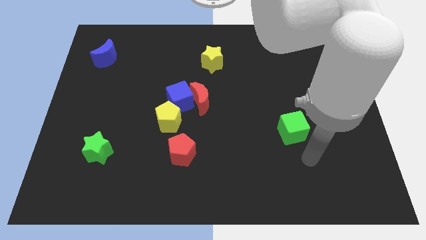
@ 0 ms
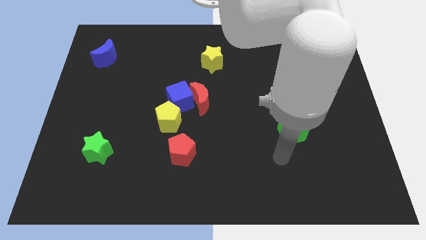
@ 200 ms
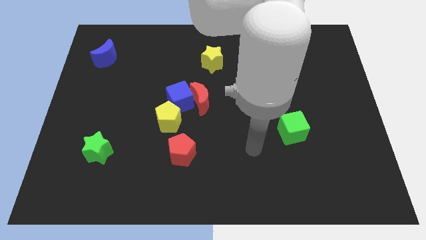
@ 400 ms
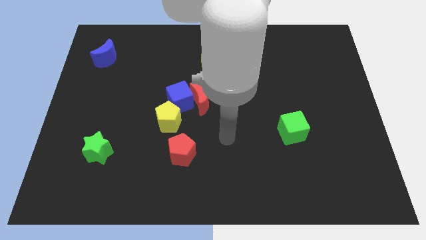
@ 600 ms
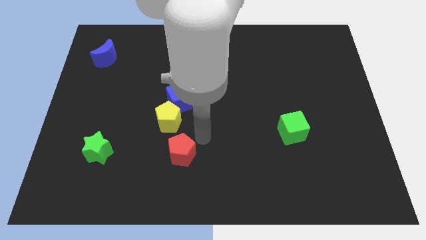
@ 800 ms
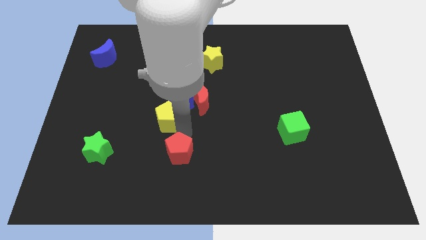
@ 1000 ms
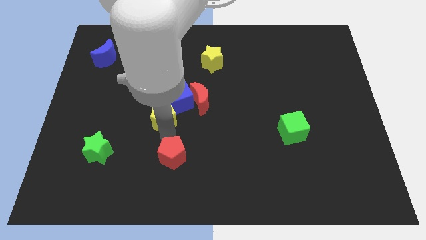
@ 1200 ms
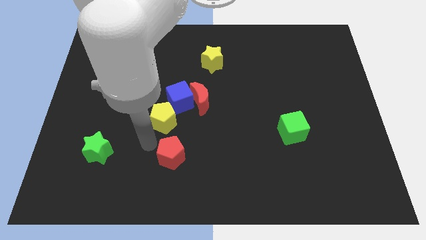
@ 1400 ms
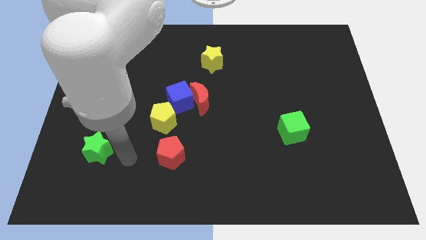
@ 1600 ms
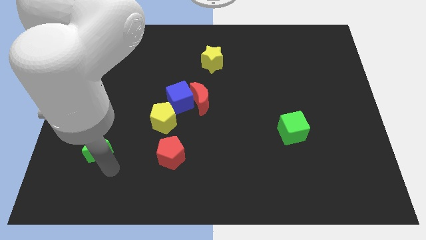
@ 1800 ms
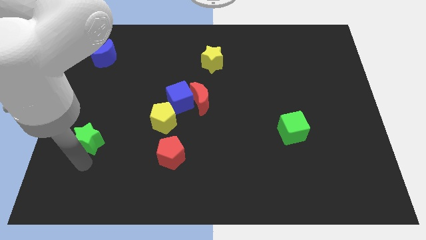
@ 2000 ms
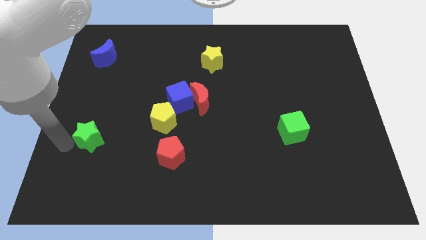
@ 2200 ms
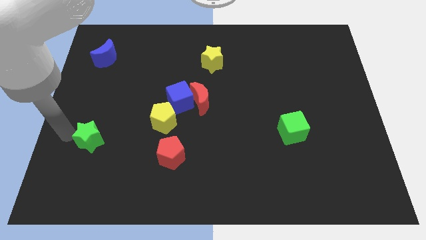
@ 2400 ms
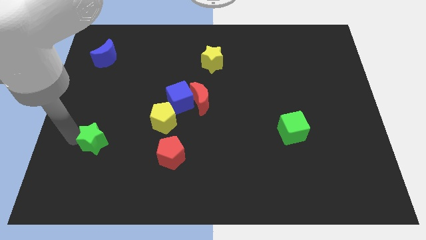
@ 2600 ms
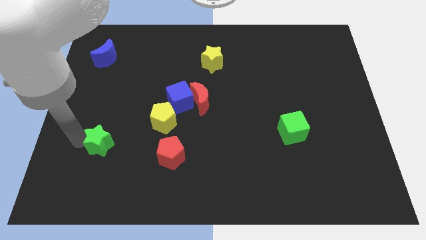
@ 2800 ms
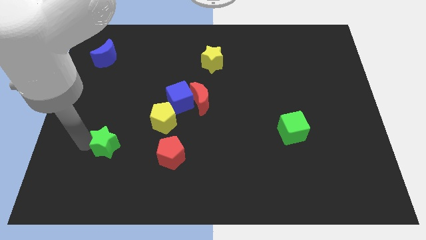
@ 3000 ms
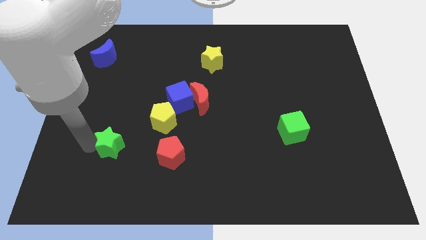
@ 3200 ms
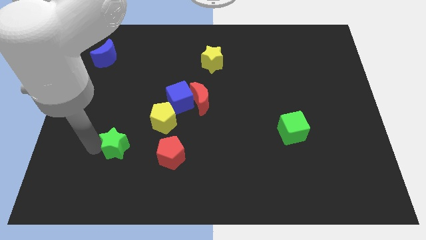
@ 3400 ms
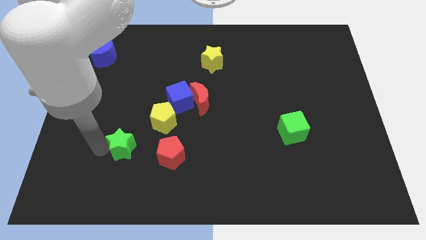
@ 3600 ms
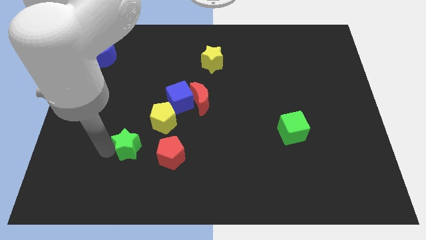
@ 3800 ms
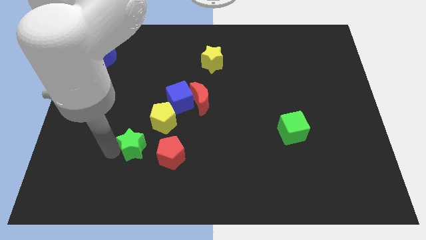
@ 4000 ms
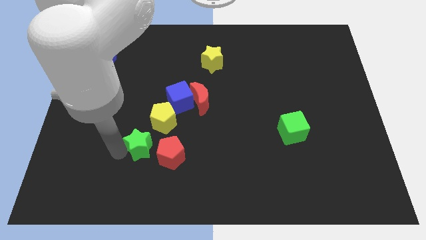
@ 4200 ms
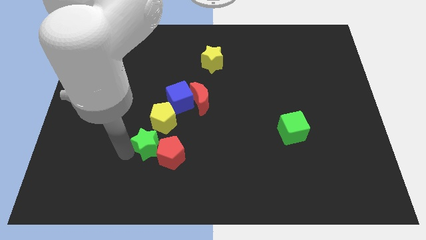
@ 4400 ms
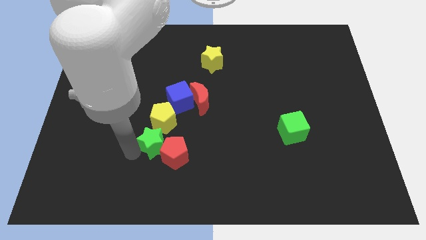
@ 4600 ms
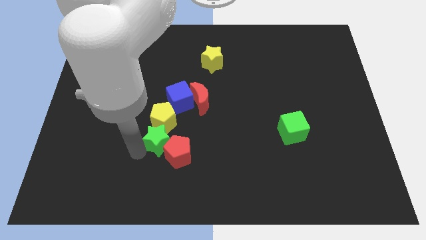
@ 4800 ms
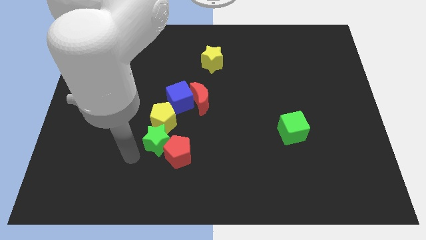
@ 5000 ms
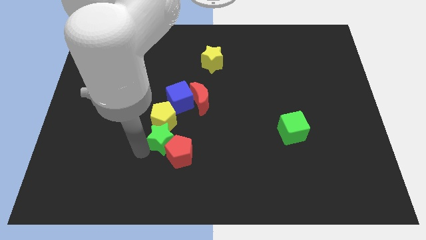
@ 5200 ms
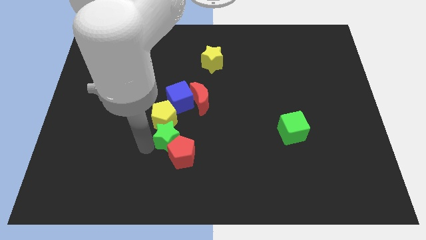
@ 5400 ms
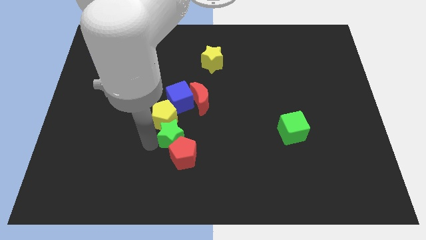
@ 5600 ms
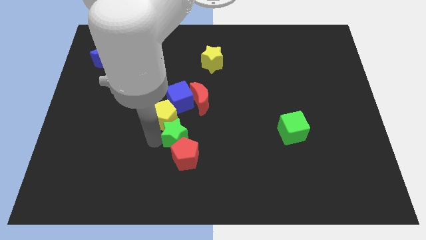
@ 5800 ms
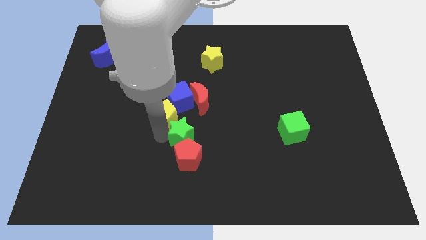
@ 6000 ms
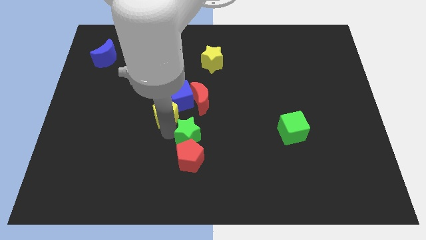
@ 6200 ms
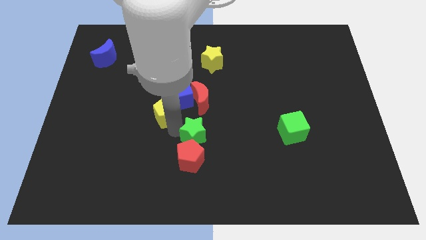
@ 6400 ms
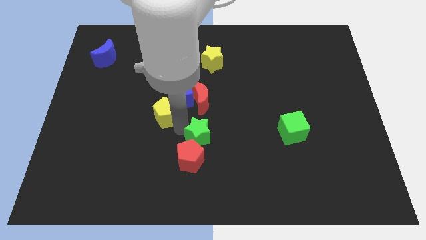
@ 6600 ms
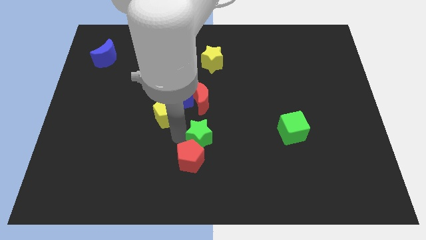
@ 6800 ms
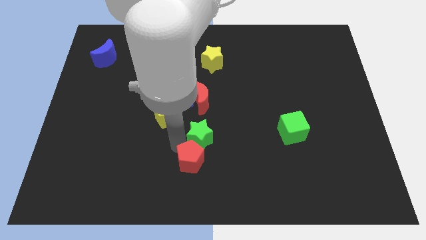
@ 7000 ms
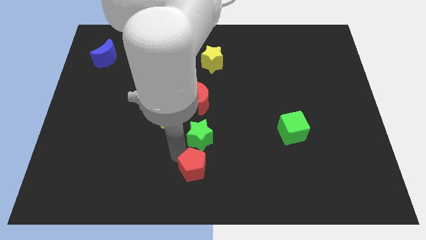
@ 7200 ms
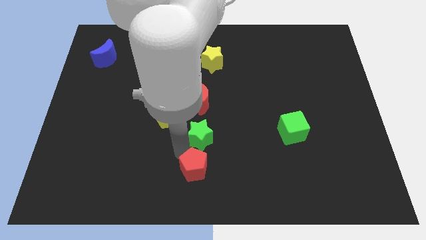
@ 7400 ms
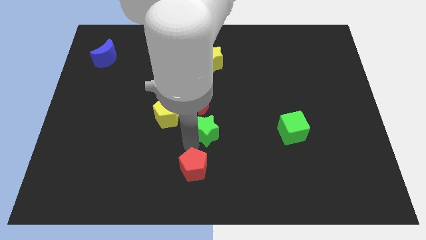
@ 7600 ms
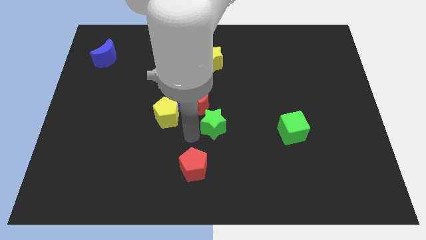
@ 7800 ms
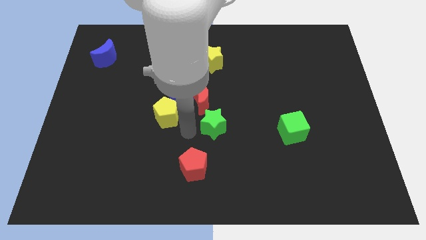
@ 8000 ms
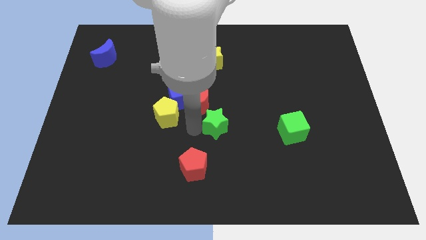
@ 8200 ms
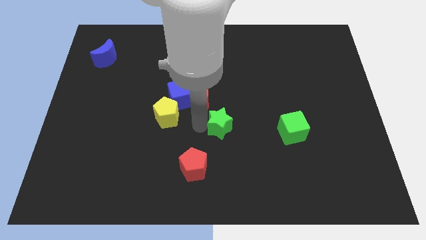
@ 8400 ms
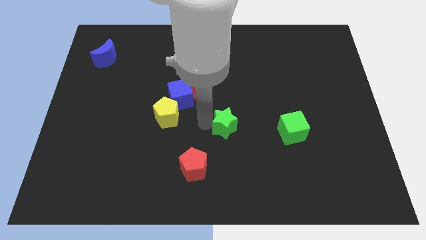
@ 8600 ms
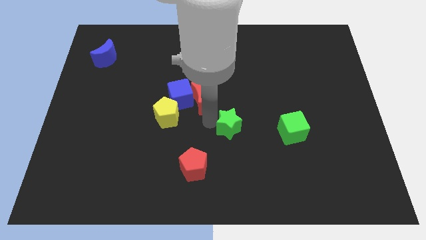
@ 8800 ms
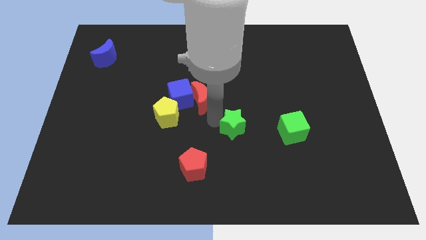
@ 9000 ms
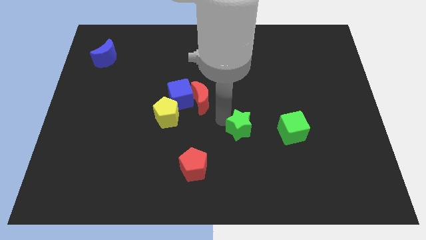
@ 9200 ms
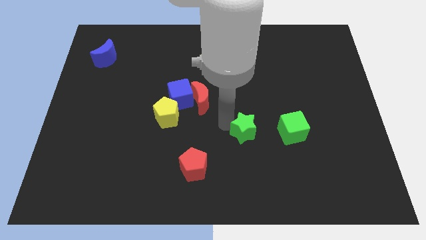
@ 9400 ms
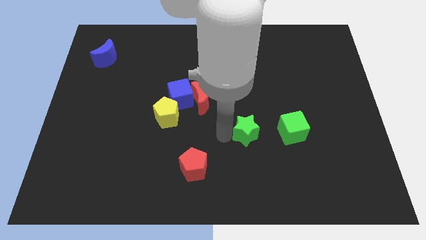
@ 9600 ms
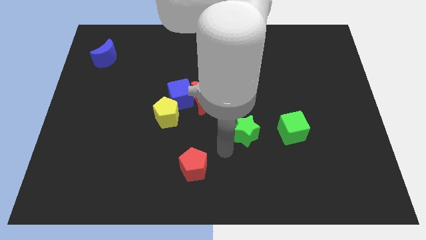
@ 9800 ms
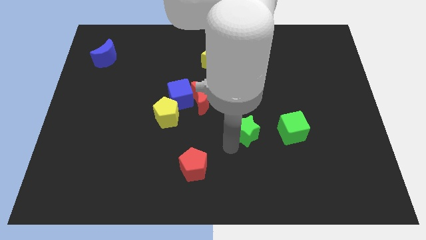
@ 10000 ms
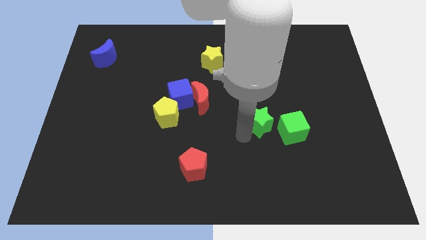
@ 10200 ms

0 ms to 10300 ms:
slide the green star to the top left of the green cube

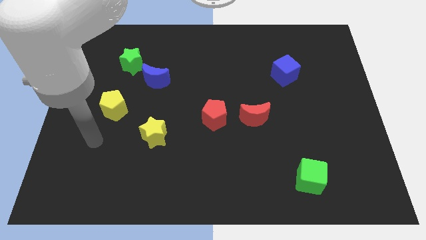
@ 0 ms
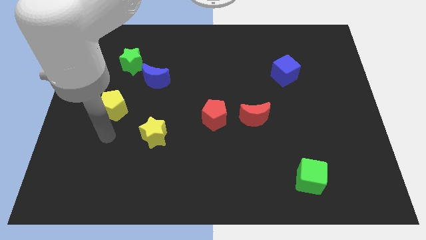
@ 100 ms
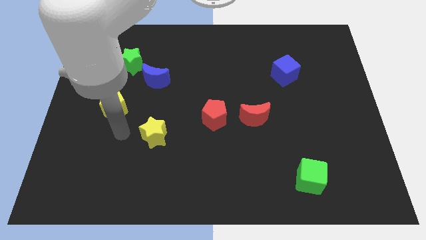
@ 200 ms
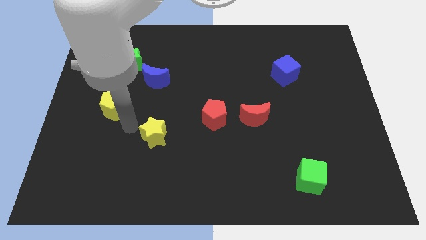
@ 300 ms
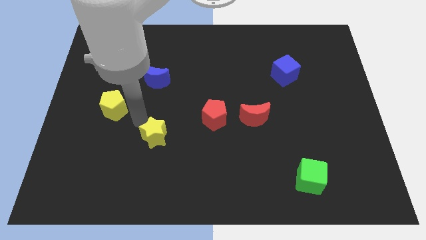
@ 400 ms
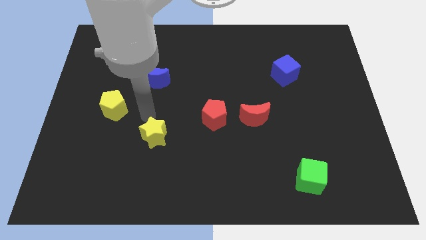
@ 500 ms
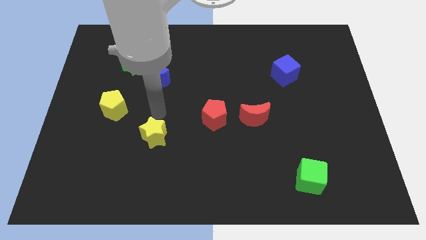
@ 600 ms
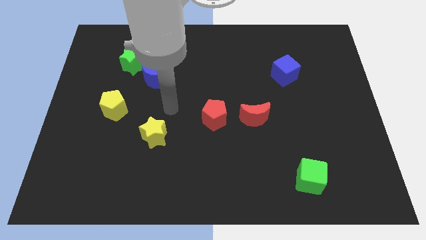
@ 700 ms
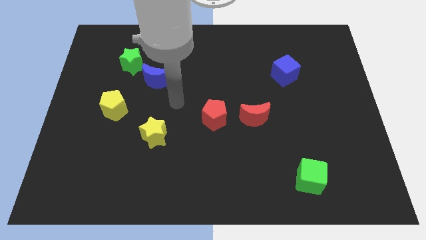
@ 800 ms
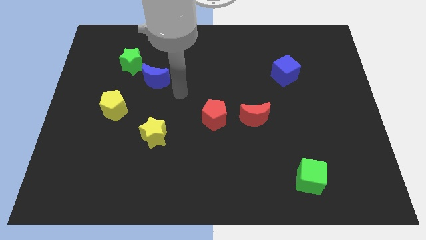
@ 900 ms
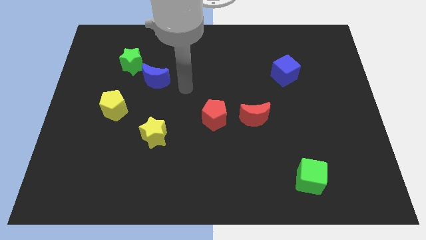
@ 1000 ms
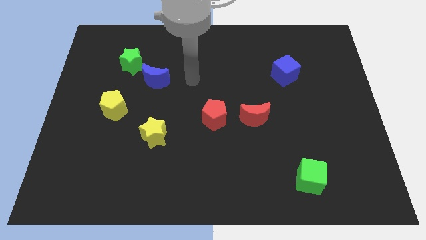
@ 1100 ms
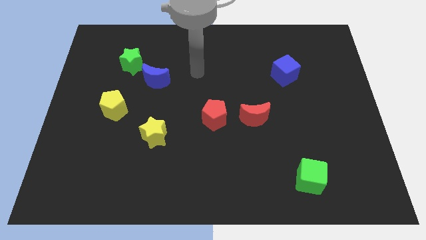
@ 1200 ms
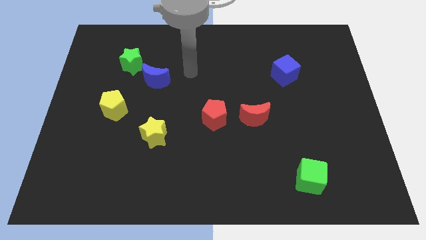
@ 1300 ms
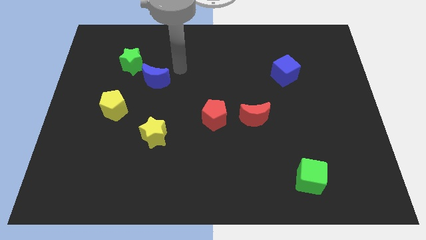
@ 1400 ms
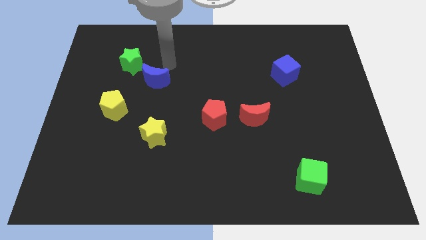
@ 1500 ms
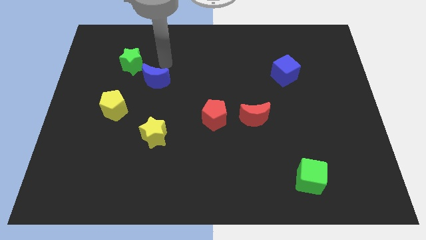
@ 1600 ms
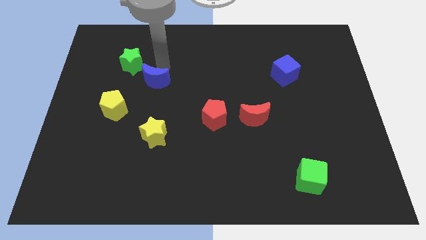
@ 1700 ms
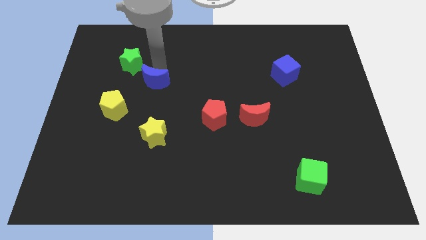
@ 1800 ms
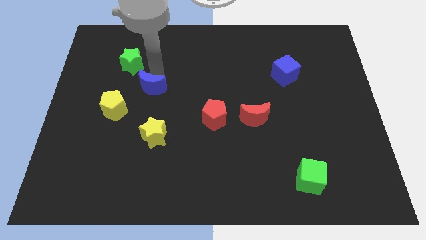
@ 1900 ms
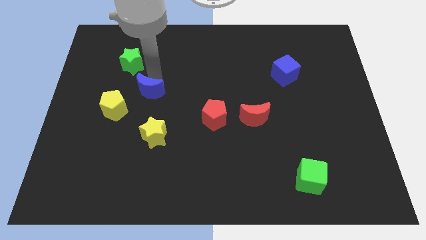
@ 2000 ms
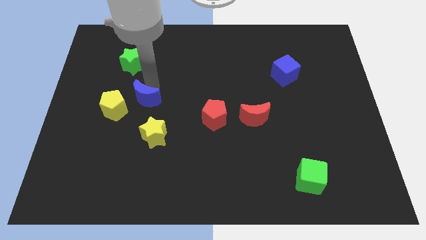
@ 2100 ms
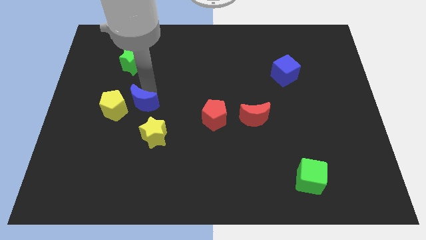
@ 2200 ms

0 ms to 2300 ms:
slide the blue moon to the top left of the yellow star

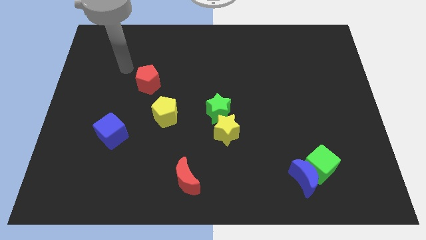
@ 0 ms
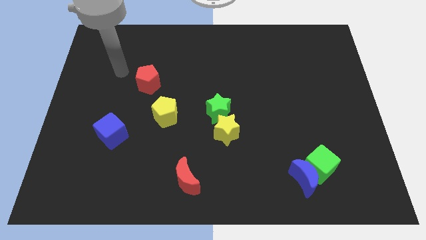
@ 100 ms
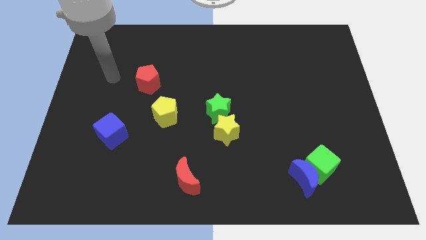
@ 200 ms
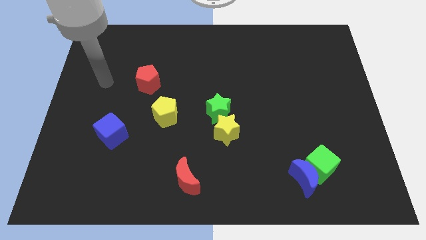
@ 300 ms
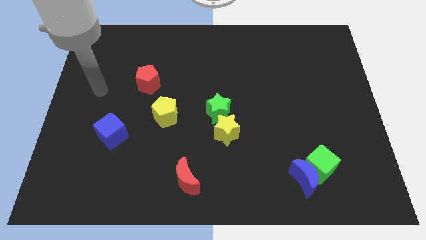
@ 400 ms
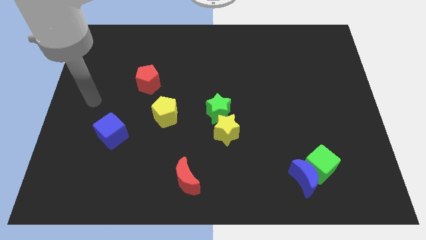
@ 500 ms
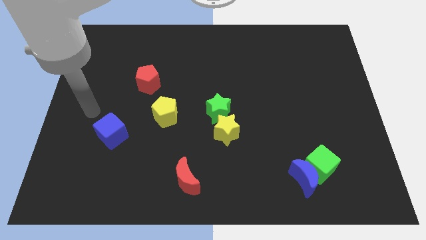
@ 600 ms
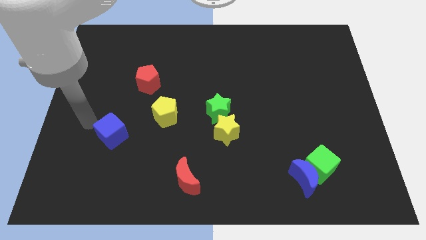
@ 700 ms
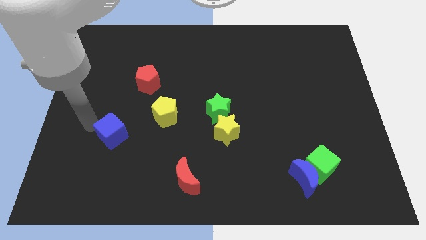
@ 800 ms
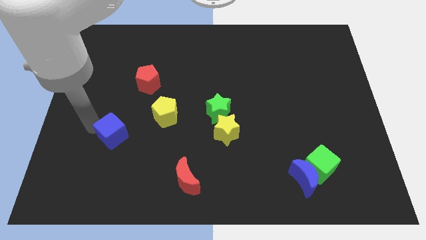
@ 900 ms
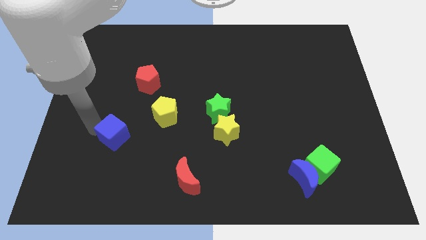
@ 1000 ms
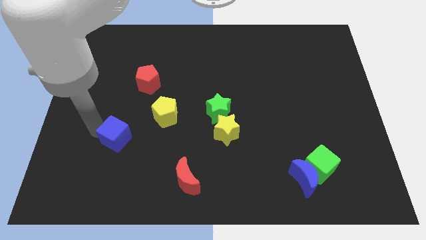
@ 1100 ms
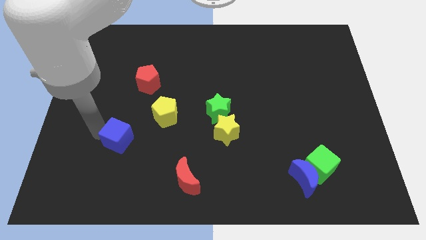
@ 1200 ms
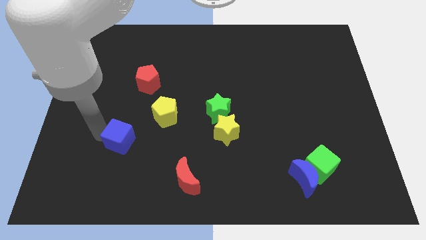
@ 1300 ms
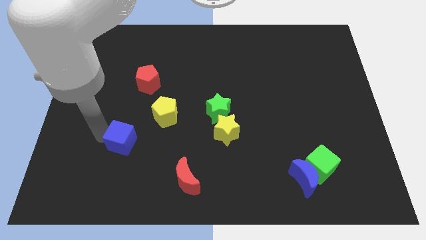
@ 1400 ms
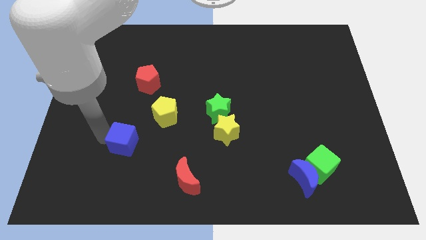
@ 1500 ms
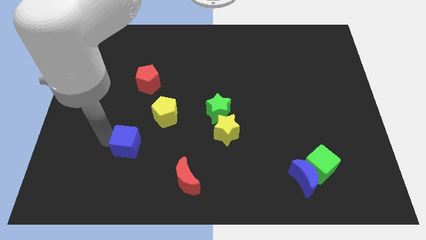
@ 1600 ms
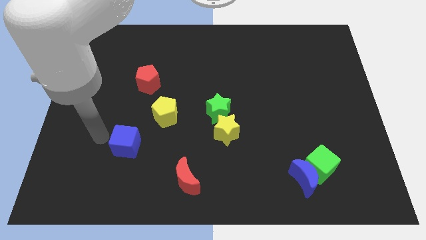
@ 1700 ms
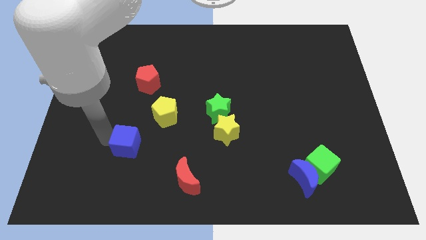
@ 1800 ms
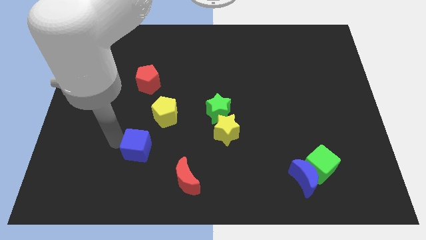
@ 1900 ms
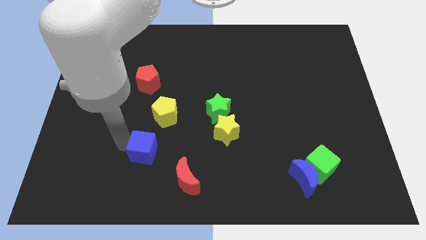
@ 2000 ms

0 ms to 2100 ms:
put the blue cube to the bottom side of the yellow pentagon
